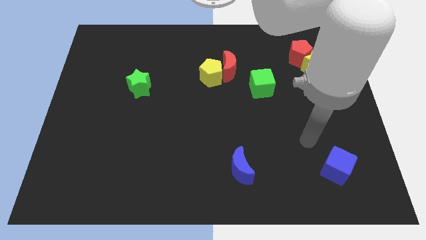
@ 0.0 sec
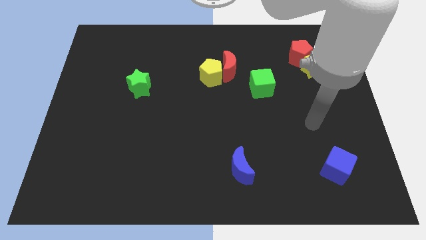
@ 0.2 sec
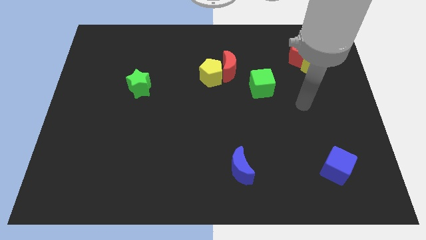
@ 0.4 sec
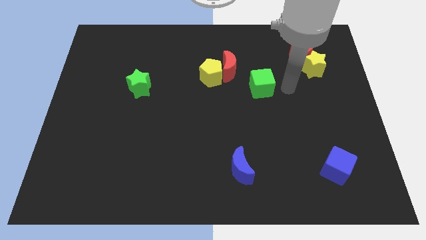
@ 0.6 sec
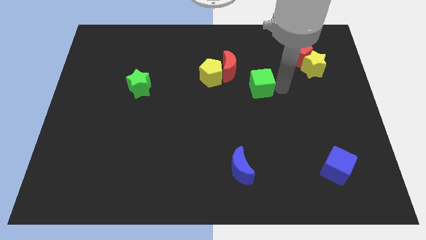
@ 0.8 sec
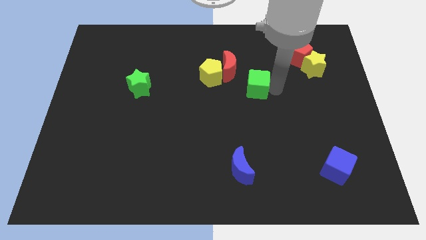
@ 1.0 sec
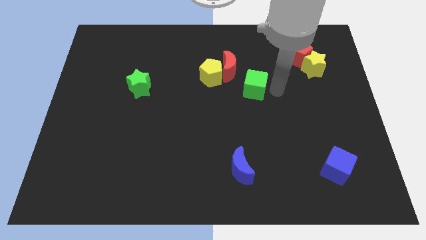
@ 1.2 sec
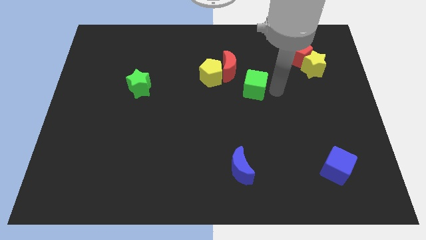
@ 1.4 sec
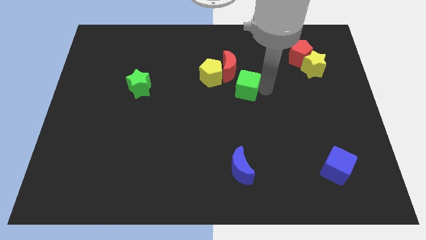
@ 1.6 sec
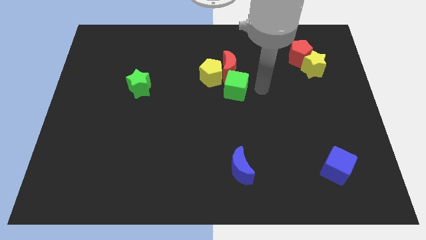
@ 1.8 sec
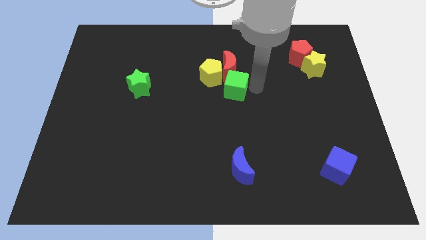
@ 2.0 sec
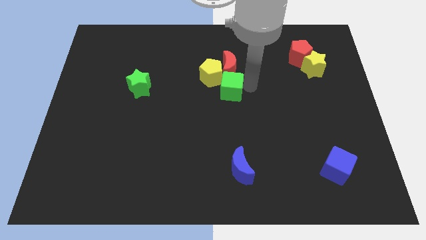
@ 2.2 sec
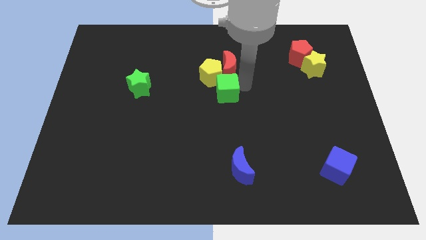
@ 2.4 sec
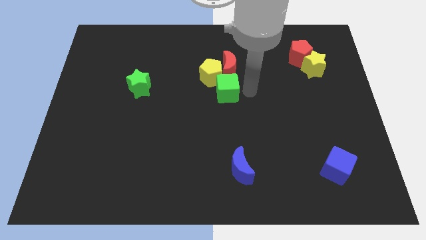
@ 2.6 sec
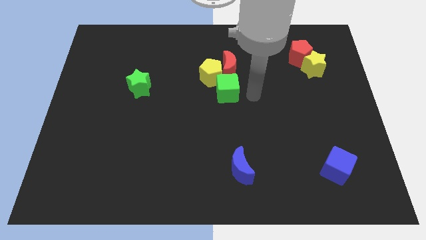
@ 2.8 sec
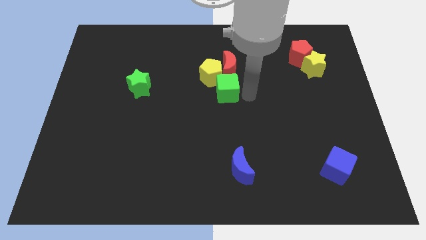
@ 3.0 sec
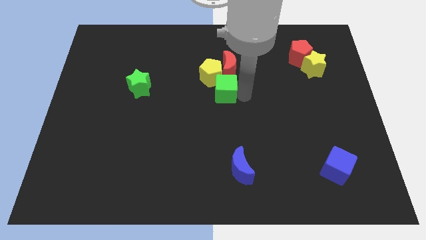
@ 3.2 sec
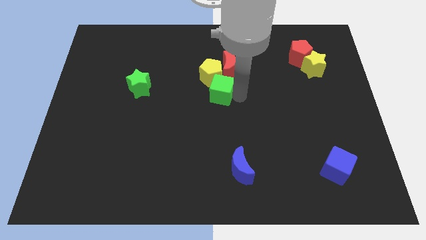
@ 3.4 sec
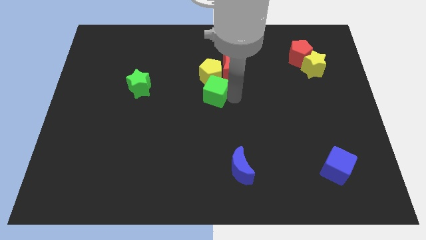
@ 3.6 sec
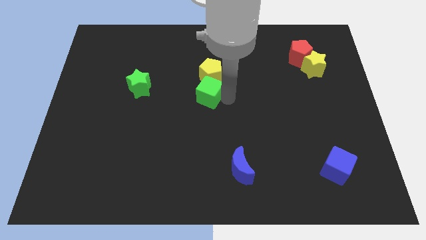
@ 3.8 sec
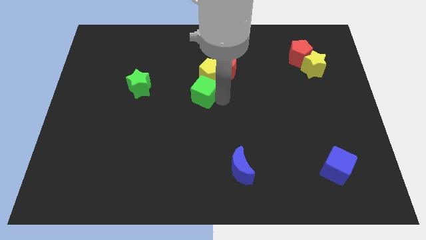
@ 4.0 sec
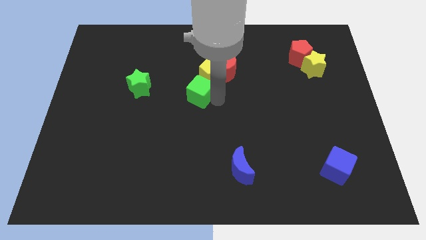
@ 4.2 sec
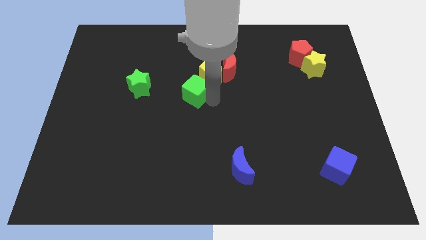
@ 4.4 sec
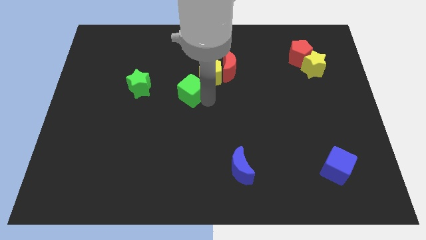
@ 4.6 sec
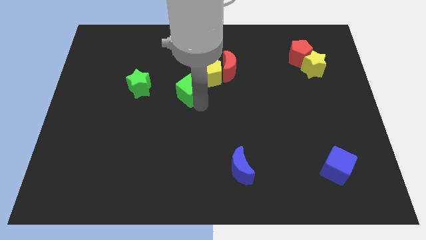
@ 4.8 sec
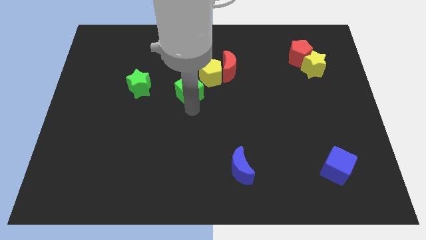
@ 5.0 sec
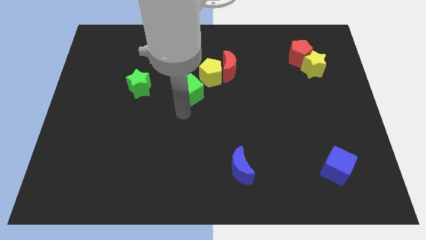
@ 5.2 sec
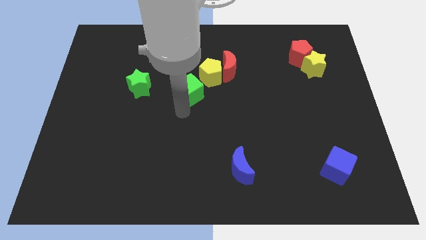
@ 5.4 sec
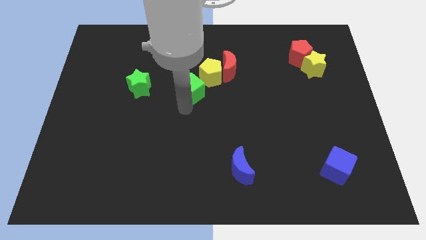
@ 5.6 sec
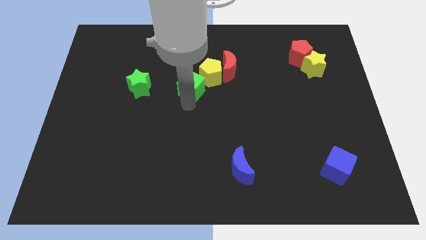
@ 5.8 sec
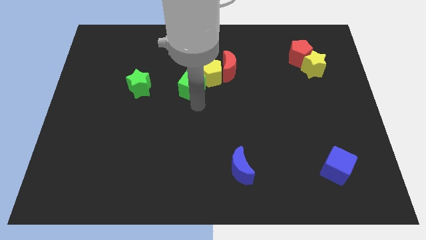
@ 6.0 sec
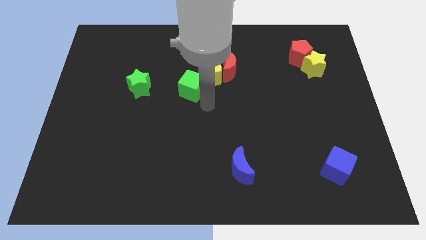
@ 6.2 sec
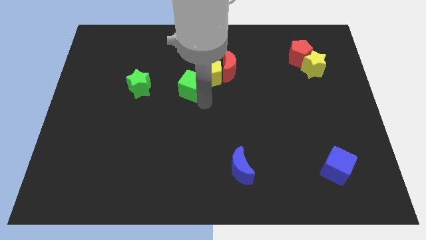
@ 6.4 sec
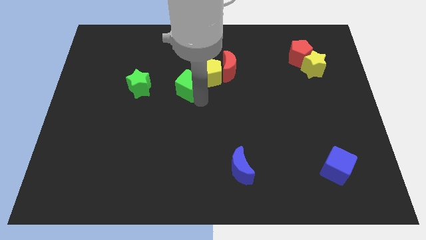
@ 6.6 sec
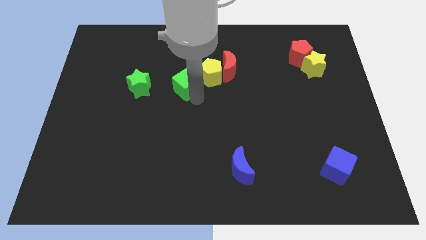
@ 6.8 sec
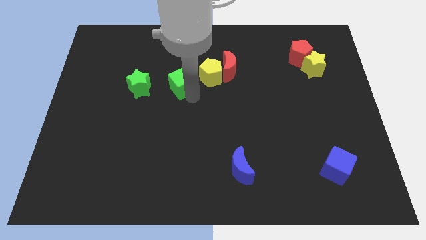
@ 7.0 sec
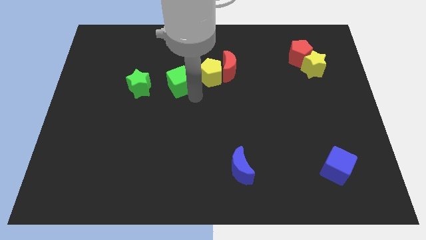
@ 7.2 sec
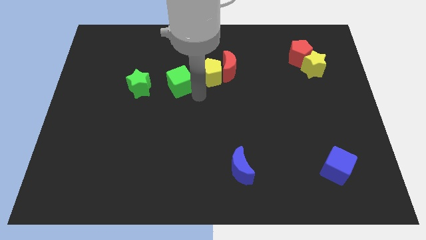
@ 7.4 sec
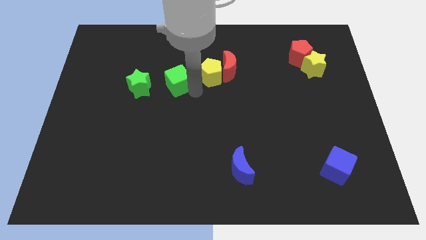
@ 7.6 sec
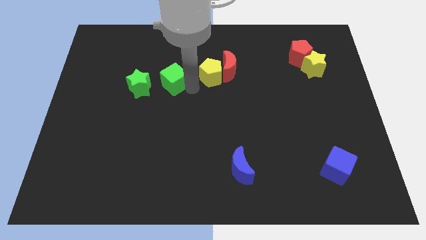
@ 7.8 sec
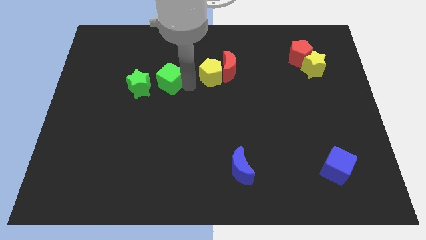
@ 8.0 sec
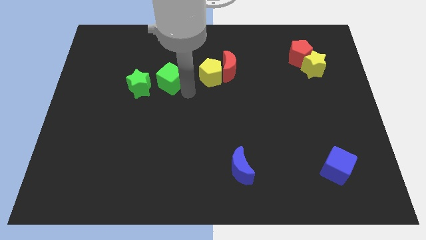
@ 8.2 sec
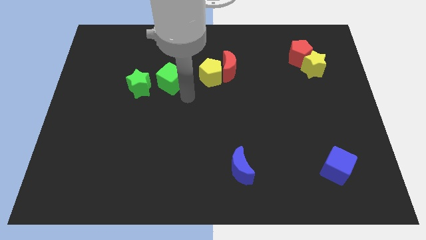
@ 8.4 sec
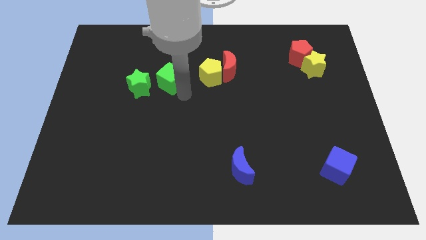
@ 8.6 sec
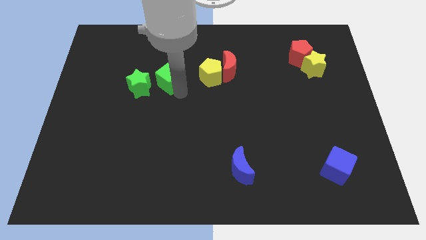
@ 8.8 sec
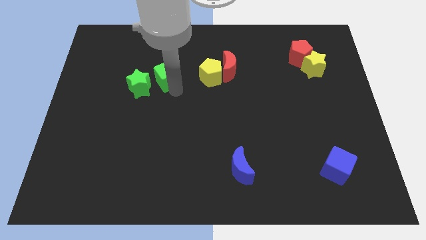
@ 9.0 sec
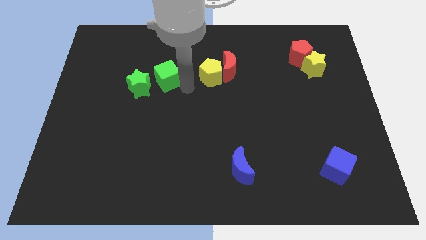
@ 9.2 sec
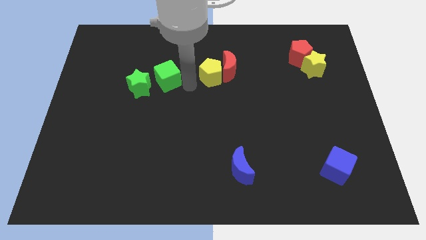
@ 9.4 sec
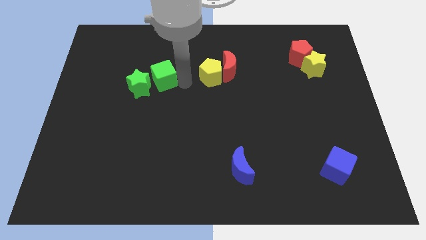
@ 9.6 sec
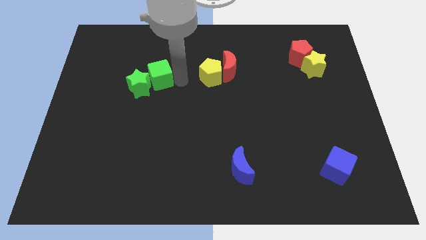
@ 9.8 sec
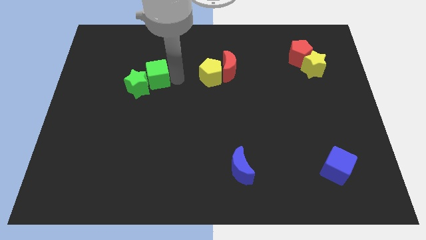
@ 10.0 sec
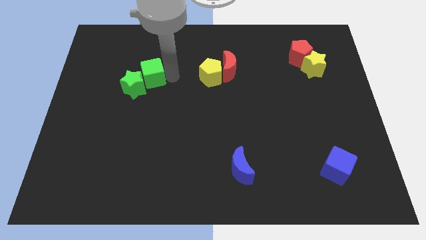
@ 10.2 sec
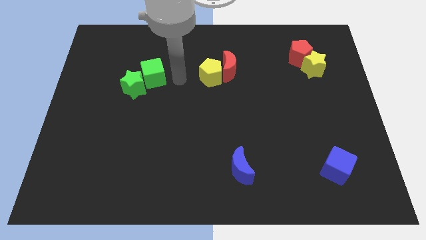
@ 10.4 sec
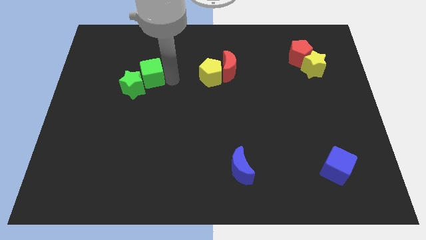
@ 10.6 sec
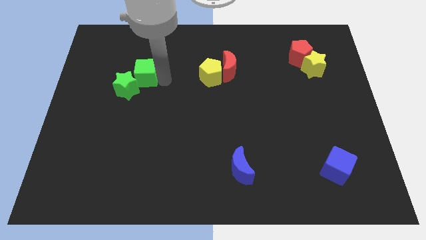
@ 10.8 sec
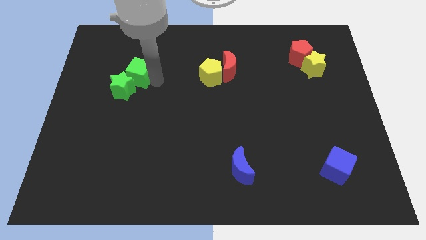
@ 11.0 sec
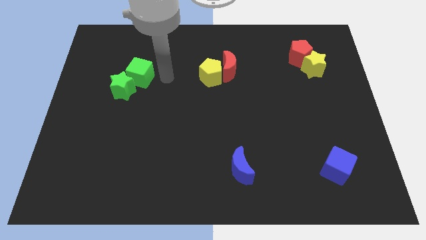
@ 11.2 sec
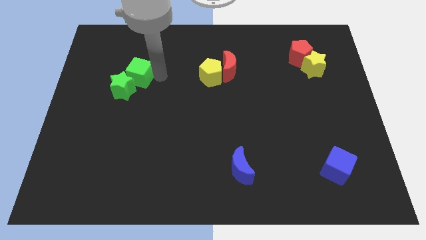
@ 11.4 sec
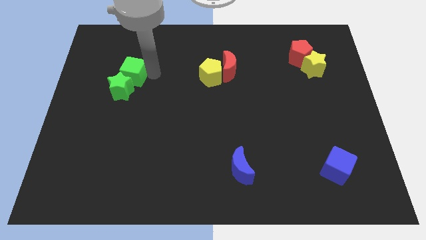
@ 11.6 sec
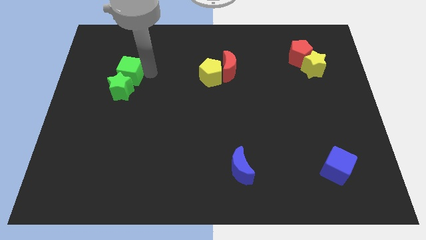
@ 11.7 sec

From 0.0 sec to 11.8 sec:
move the green cube to the top left side of the green star

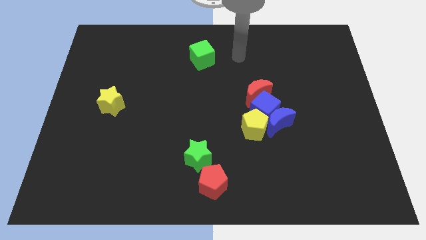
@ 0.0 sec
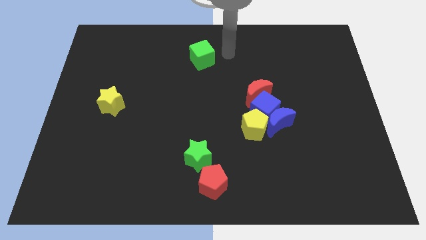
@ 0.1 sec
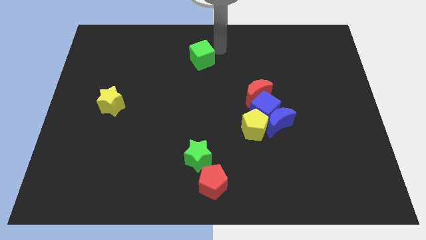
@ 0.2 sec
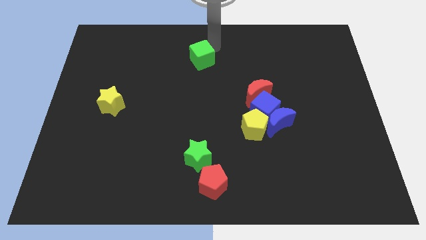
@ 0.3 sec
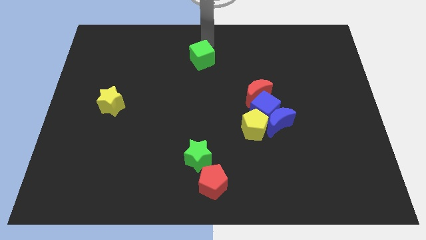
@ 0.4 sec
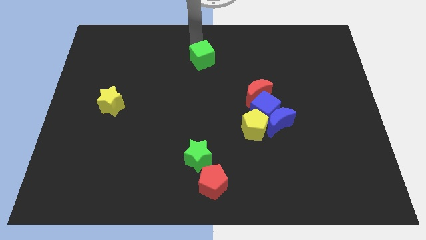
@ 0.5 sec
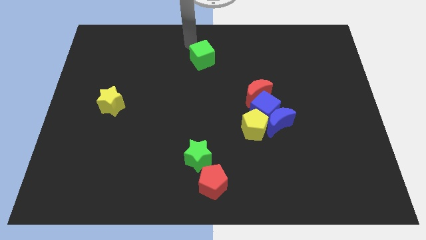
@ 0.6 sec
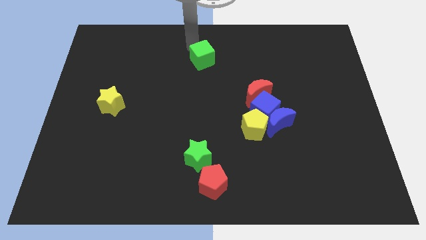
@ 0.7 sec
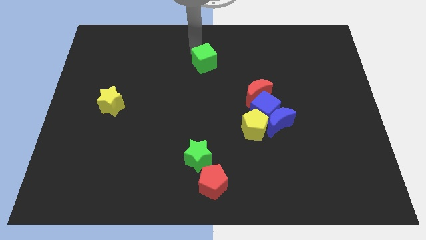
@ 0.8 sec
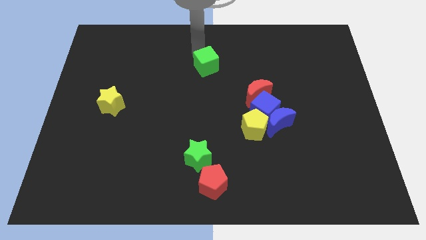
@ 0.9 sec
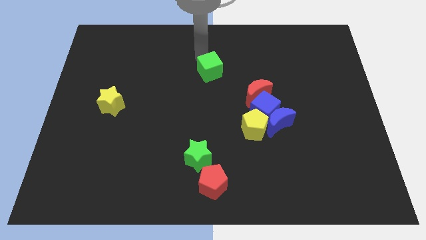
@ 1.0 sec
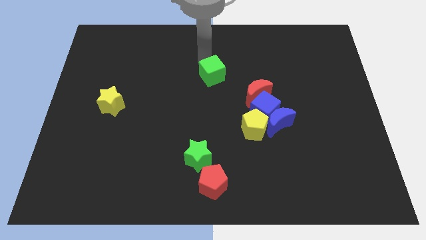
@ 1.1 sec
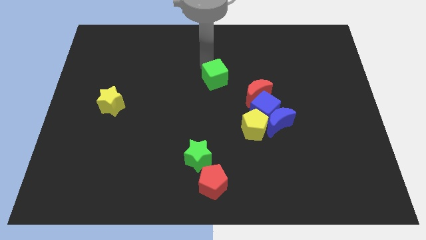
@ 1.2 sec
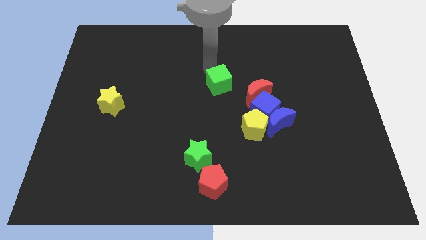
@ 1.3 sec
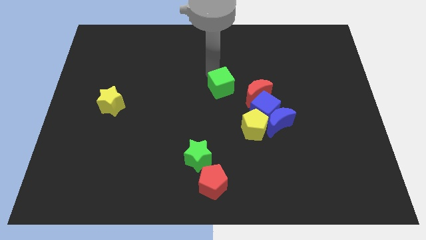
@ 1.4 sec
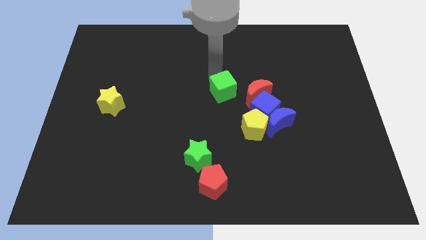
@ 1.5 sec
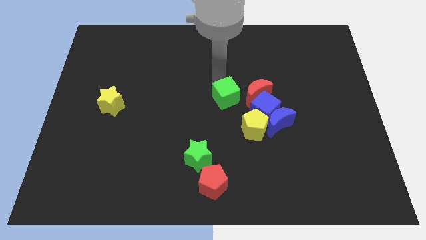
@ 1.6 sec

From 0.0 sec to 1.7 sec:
put the green cube to the top left side of the yellow pentagon
